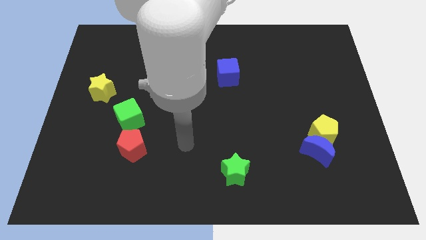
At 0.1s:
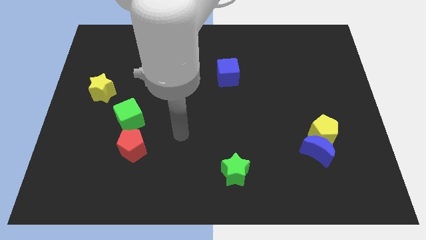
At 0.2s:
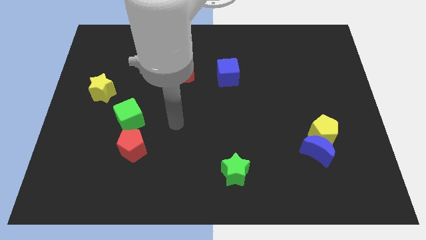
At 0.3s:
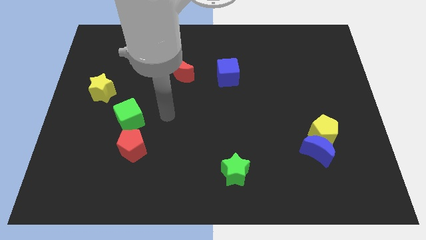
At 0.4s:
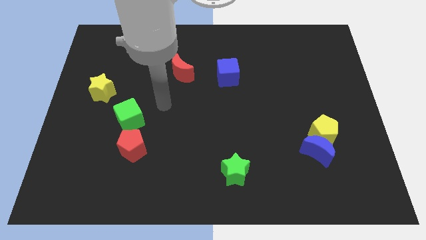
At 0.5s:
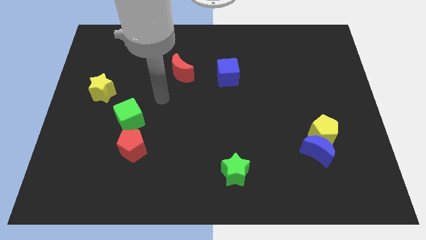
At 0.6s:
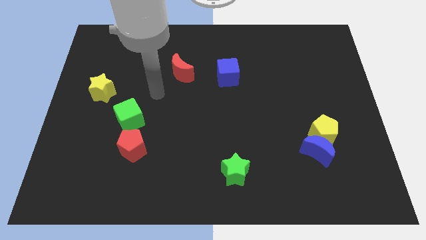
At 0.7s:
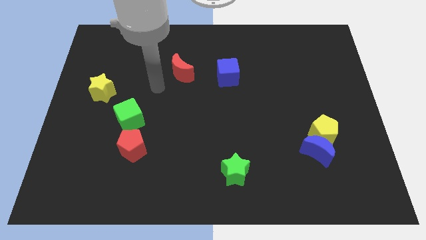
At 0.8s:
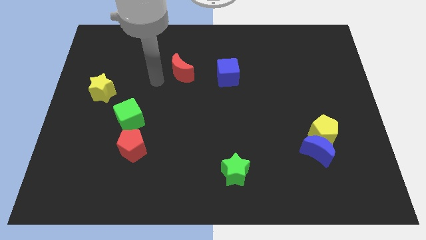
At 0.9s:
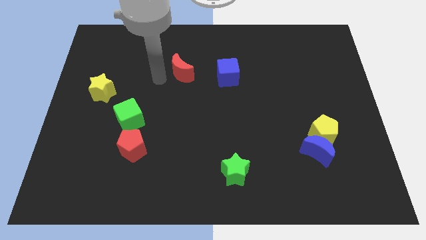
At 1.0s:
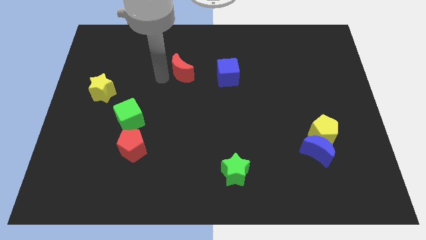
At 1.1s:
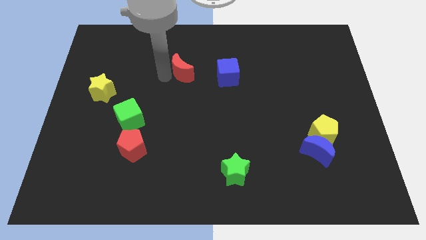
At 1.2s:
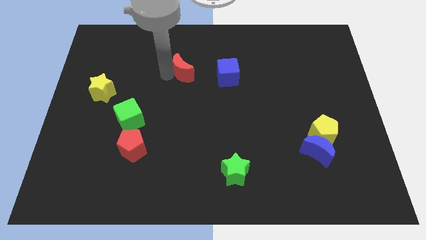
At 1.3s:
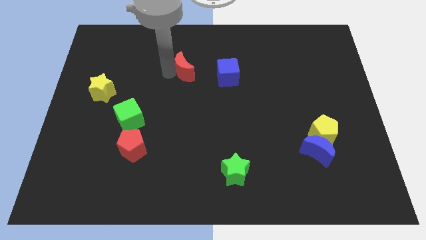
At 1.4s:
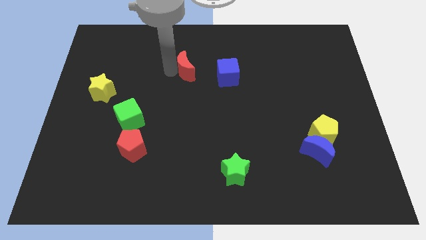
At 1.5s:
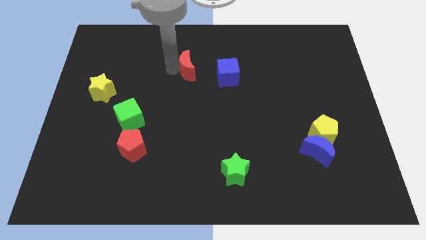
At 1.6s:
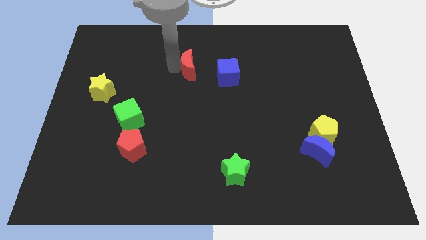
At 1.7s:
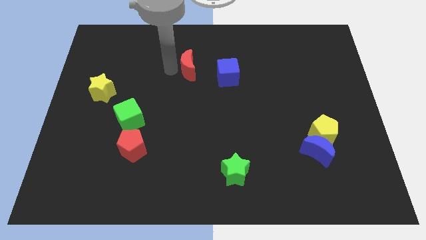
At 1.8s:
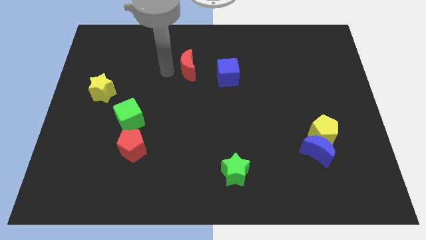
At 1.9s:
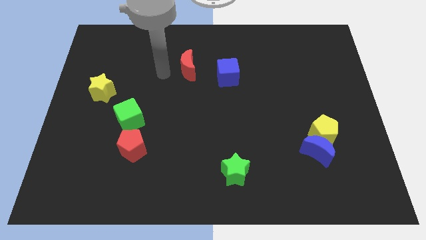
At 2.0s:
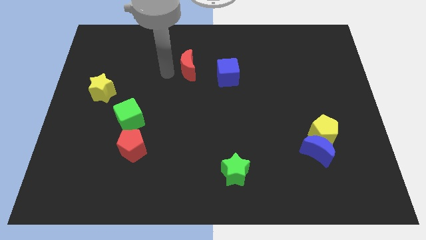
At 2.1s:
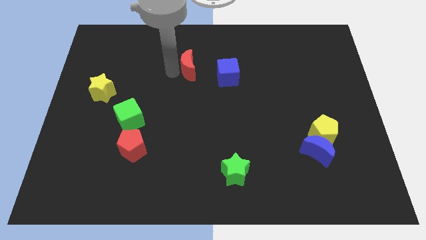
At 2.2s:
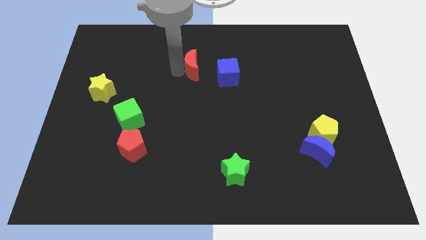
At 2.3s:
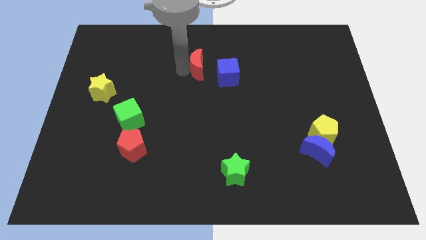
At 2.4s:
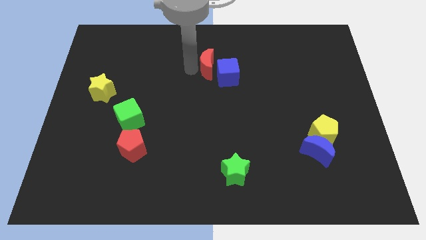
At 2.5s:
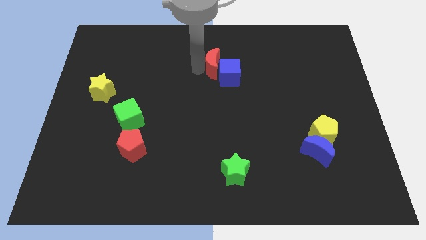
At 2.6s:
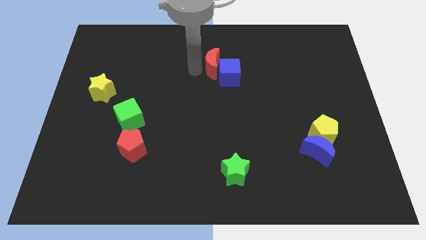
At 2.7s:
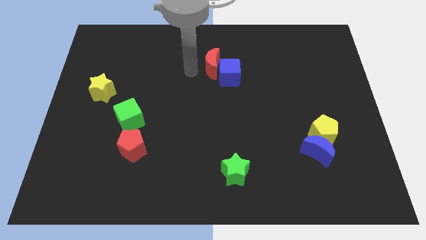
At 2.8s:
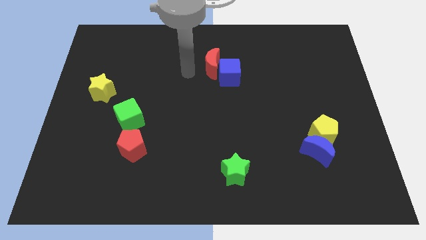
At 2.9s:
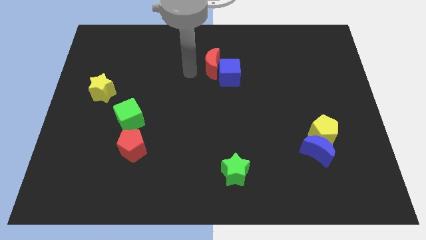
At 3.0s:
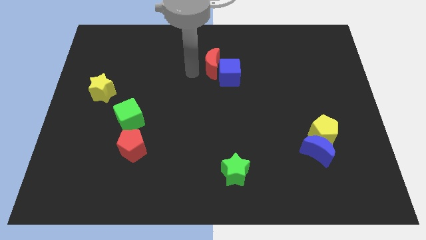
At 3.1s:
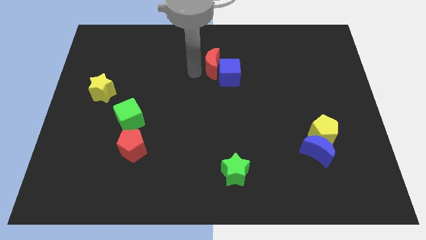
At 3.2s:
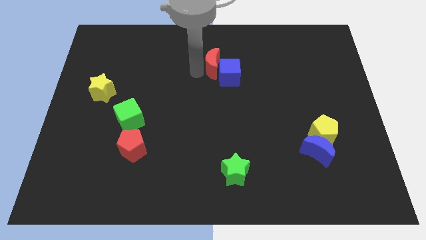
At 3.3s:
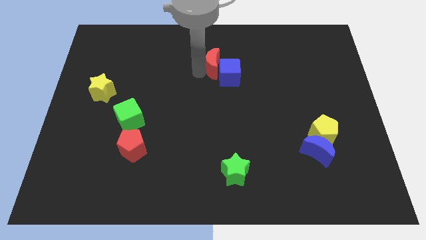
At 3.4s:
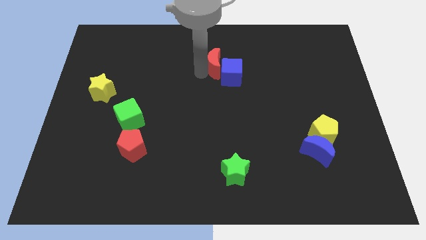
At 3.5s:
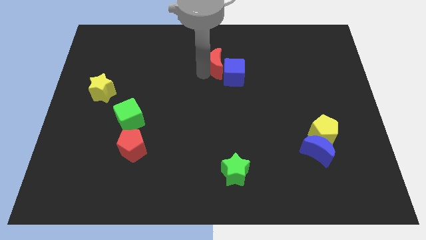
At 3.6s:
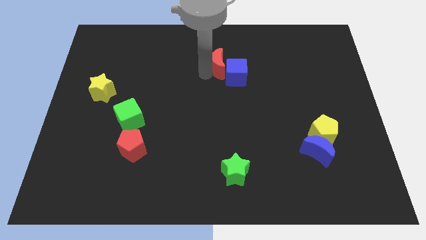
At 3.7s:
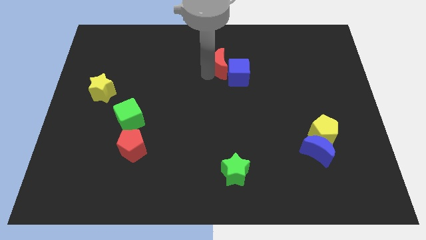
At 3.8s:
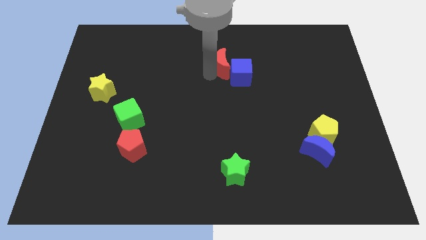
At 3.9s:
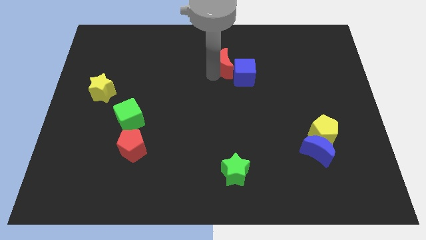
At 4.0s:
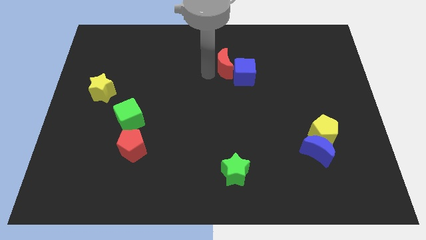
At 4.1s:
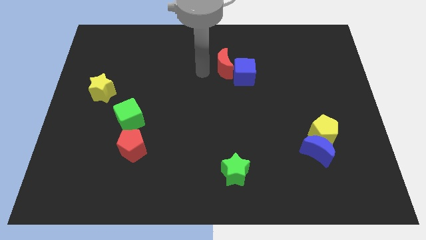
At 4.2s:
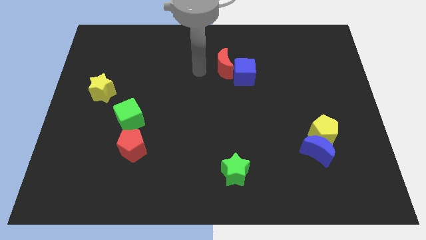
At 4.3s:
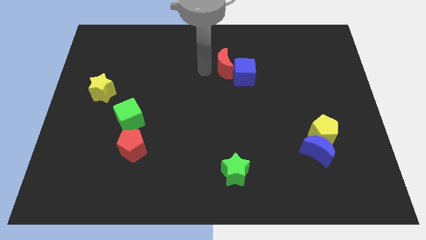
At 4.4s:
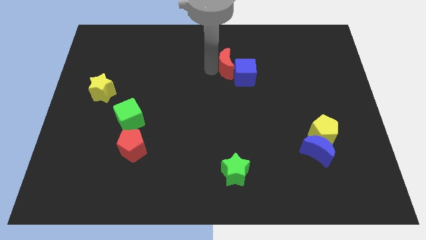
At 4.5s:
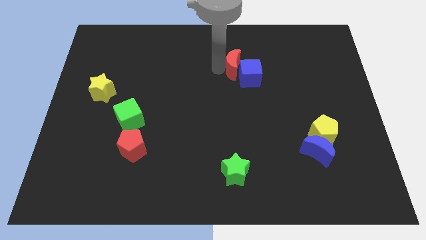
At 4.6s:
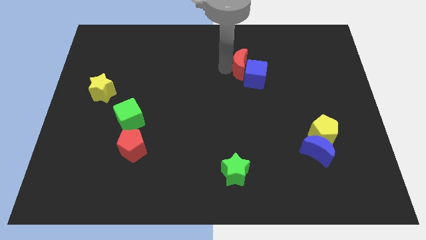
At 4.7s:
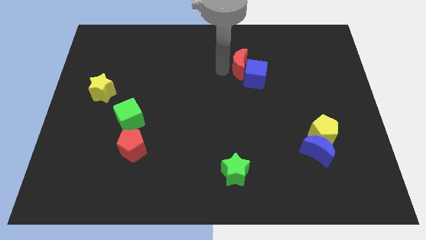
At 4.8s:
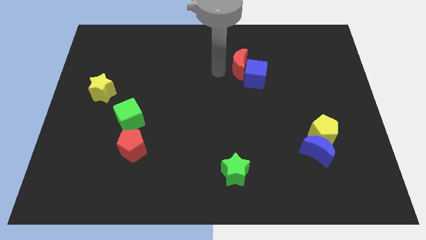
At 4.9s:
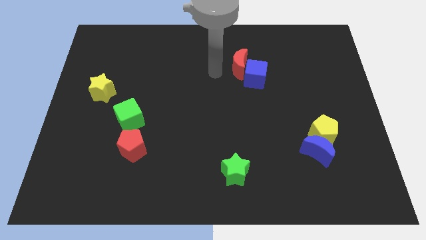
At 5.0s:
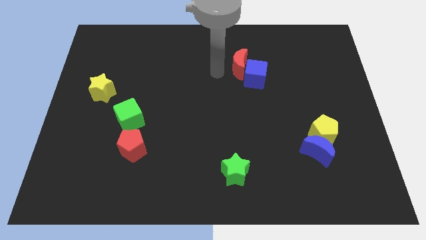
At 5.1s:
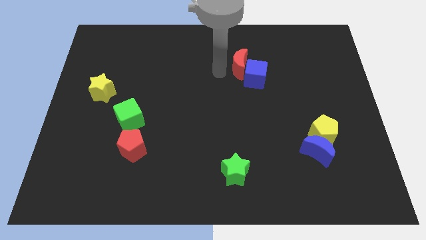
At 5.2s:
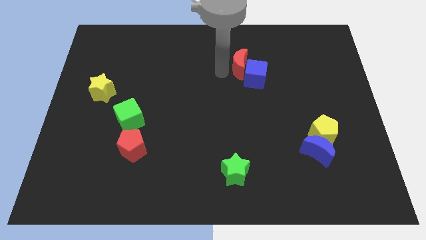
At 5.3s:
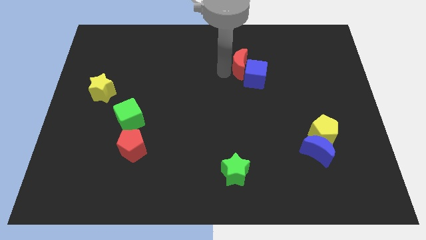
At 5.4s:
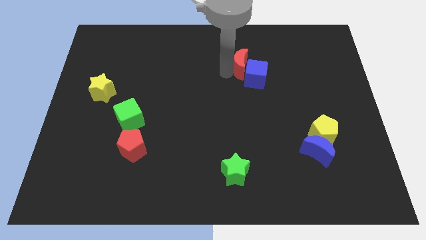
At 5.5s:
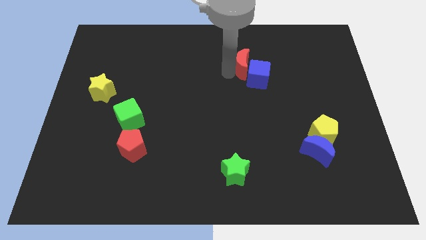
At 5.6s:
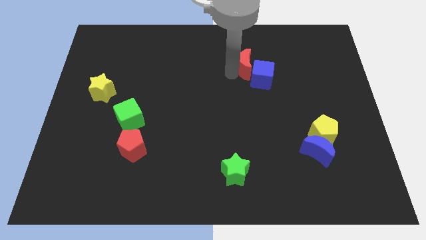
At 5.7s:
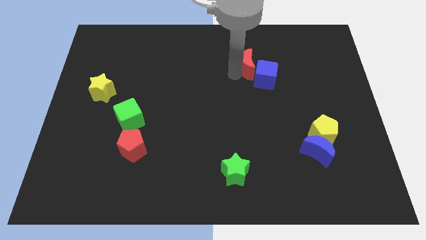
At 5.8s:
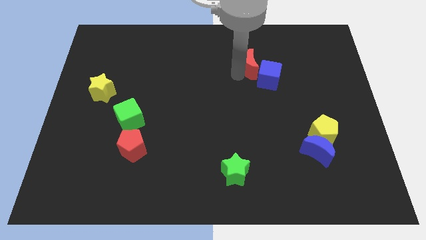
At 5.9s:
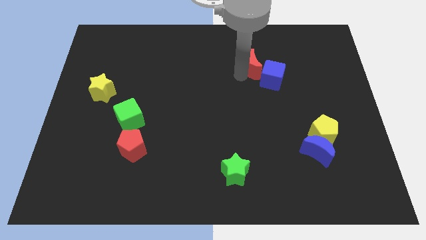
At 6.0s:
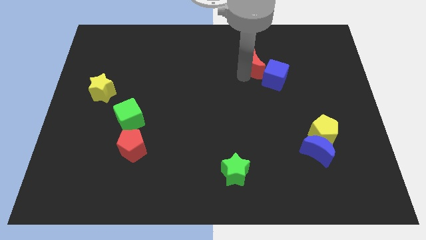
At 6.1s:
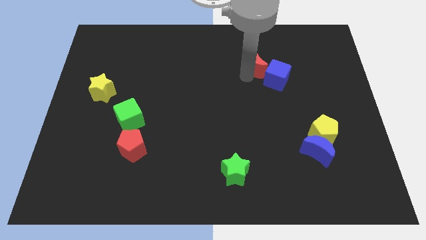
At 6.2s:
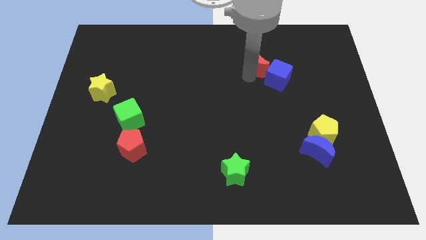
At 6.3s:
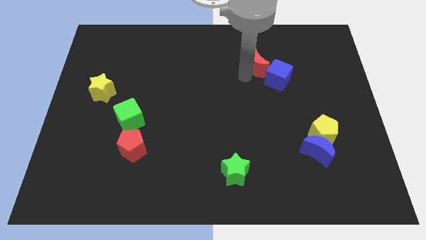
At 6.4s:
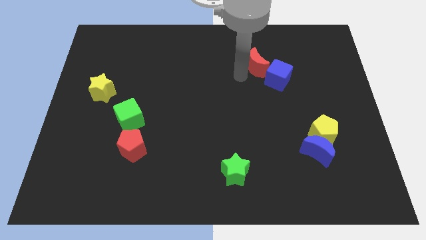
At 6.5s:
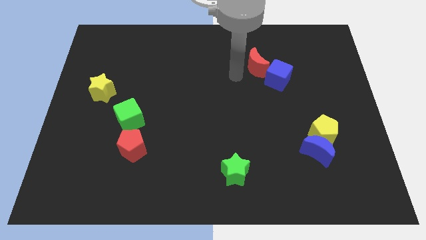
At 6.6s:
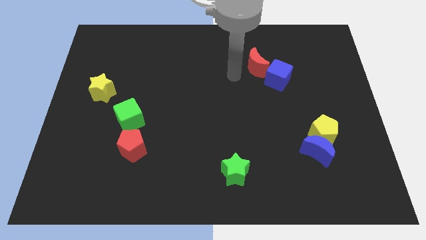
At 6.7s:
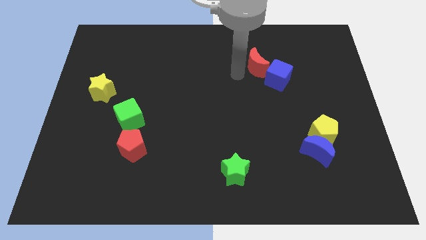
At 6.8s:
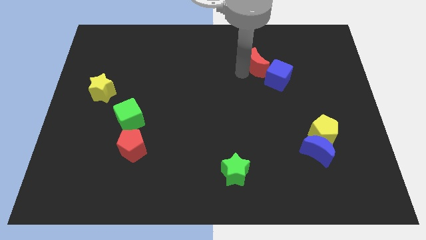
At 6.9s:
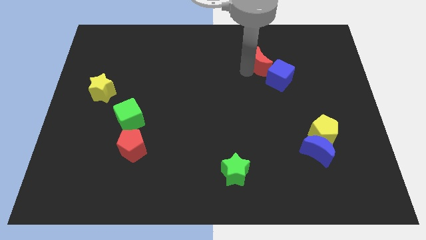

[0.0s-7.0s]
slide the red moon right

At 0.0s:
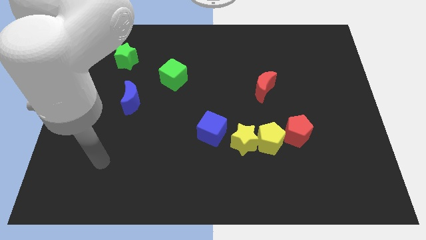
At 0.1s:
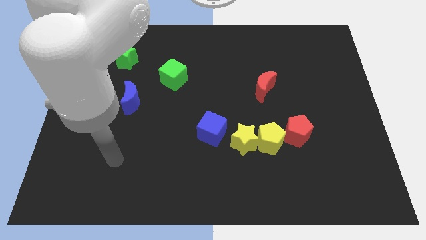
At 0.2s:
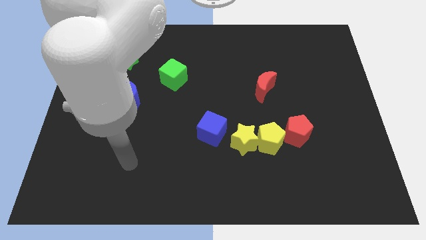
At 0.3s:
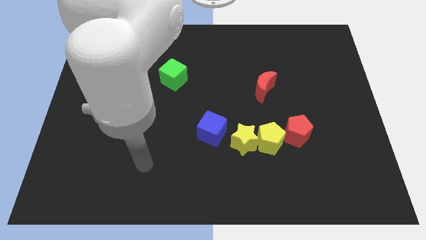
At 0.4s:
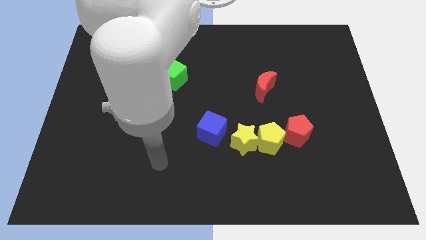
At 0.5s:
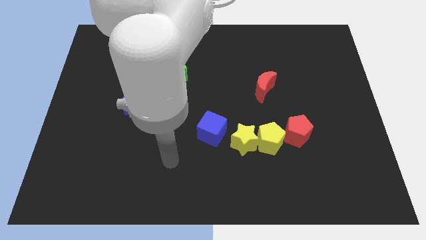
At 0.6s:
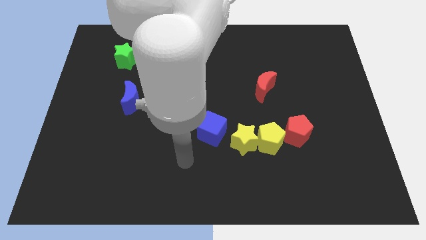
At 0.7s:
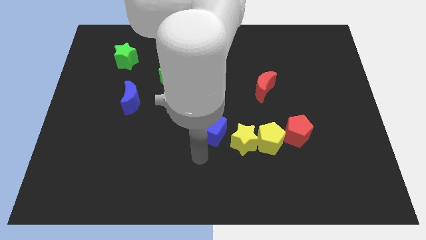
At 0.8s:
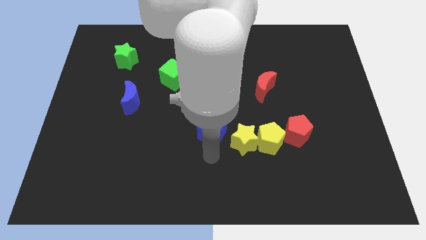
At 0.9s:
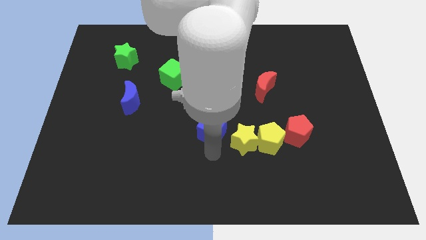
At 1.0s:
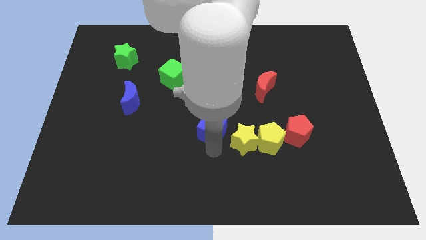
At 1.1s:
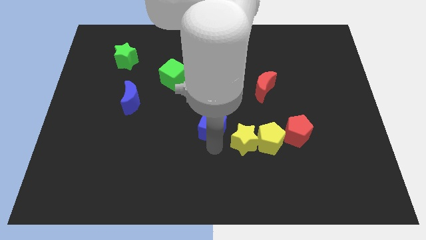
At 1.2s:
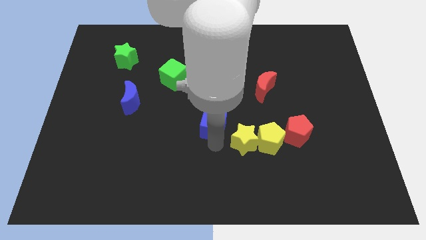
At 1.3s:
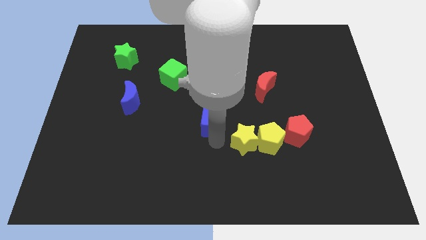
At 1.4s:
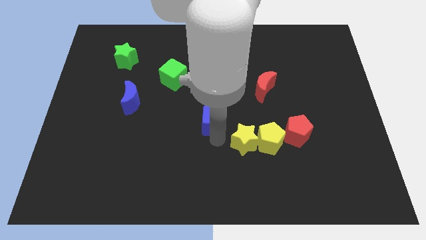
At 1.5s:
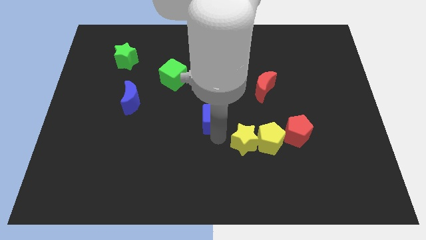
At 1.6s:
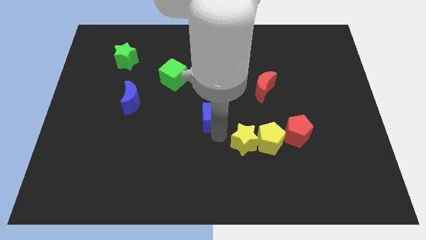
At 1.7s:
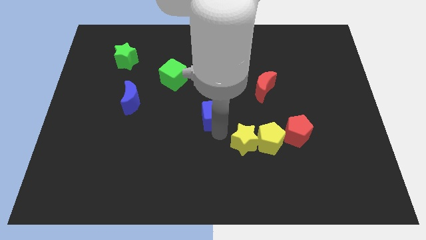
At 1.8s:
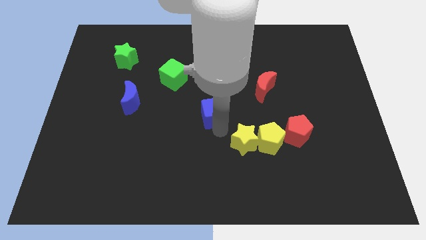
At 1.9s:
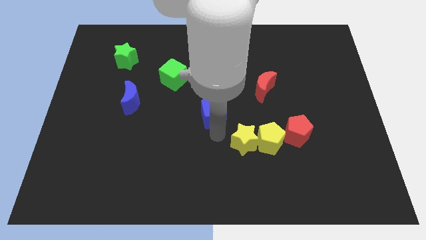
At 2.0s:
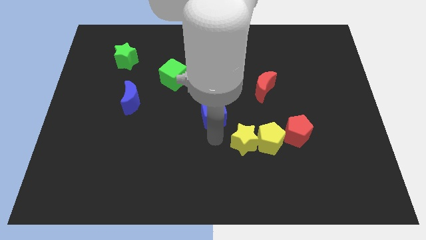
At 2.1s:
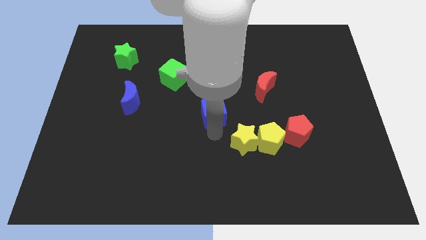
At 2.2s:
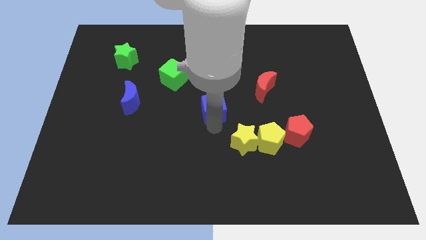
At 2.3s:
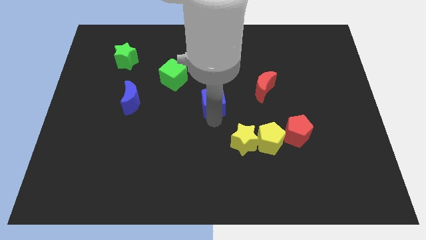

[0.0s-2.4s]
move the blue cube upwards somewhat
